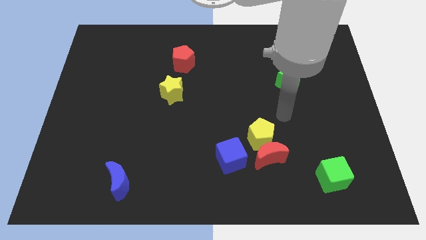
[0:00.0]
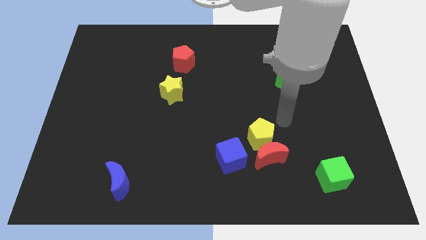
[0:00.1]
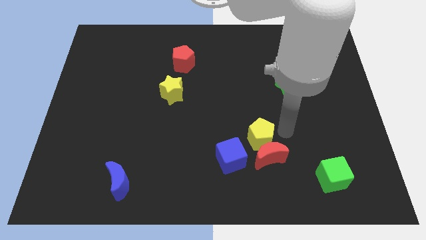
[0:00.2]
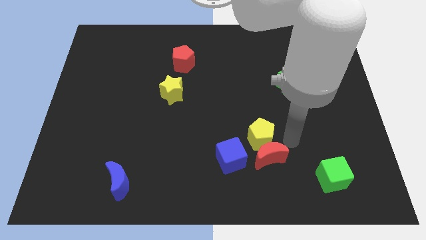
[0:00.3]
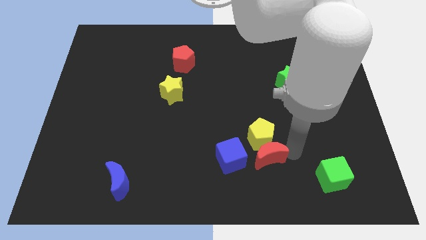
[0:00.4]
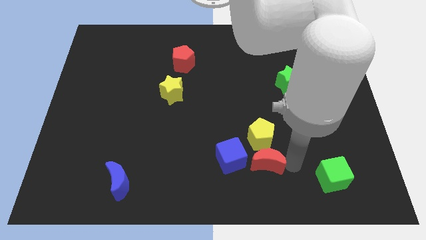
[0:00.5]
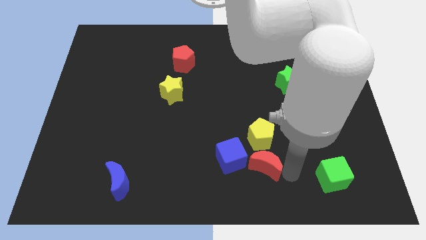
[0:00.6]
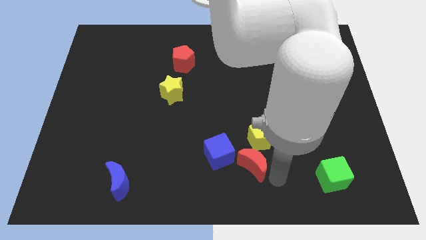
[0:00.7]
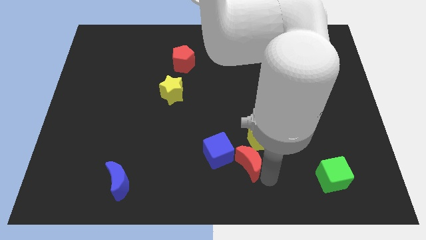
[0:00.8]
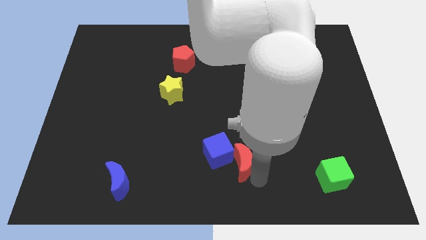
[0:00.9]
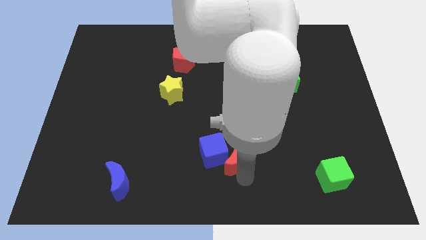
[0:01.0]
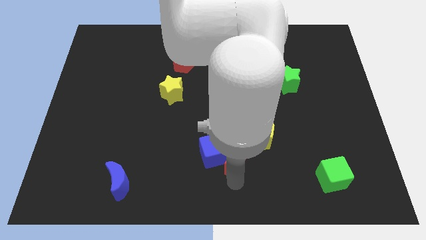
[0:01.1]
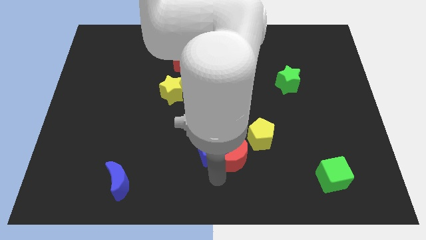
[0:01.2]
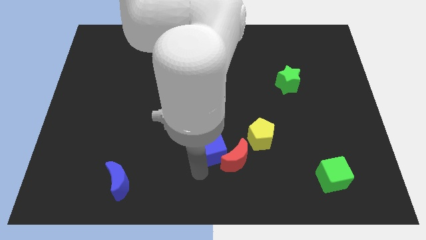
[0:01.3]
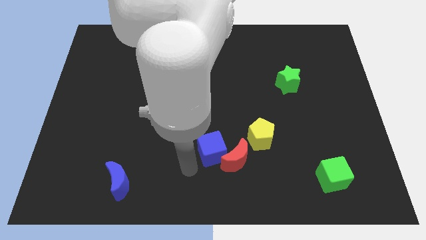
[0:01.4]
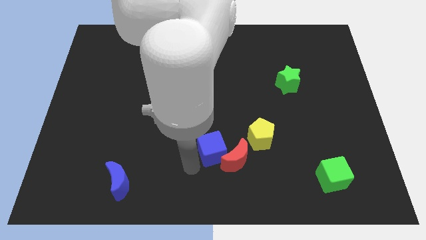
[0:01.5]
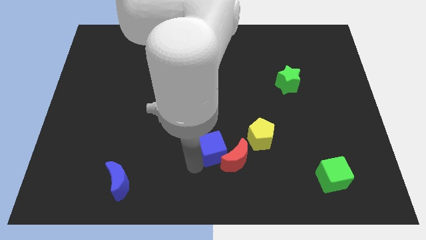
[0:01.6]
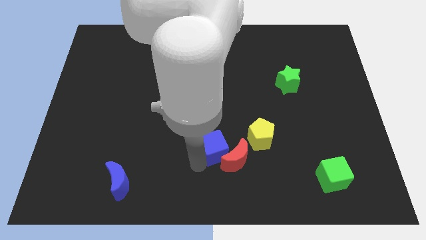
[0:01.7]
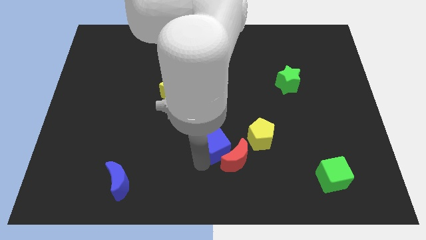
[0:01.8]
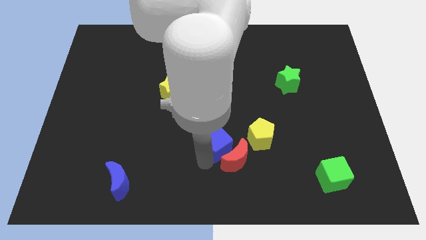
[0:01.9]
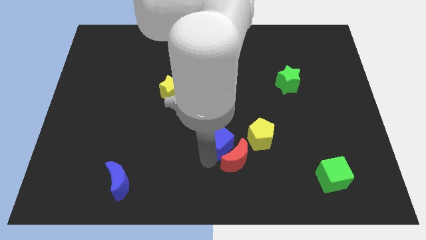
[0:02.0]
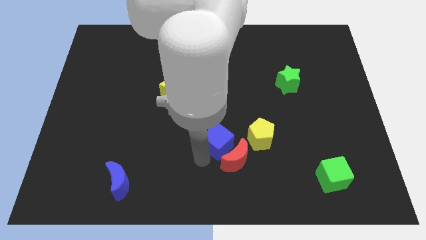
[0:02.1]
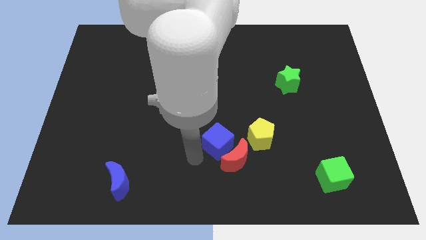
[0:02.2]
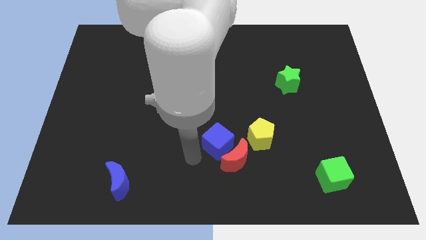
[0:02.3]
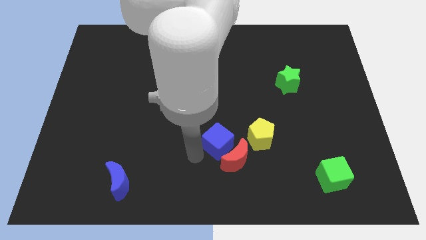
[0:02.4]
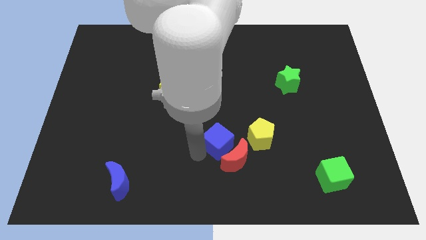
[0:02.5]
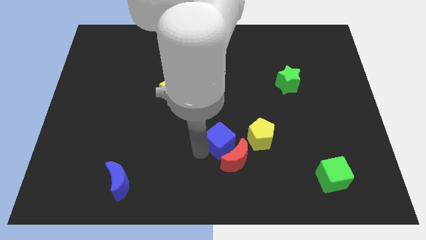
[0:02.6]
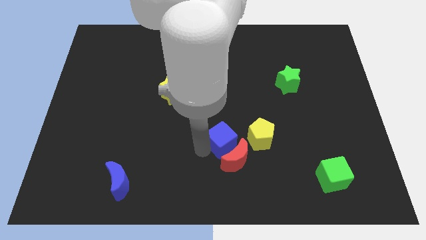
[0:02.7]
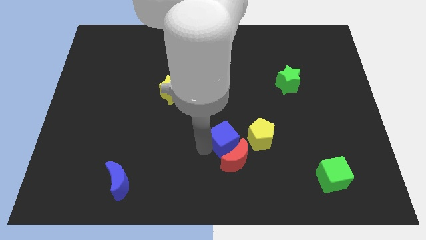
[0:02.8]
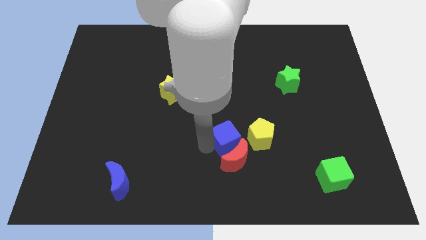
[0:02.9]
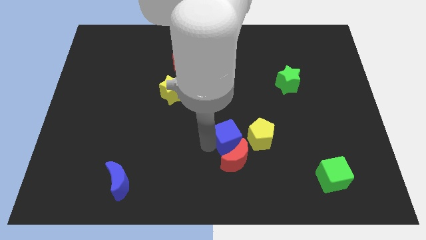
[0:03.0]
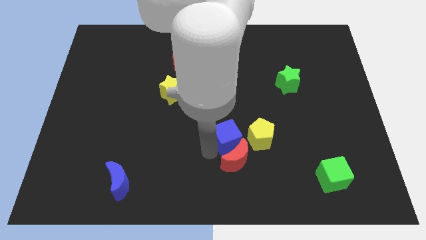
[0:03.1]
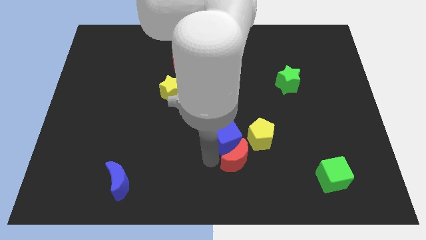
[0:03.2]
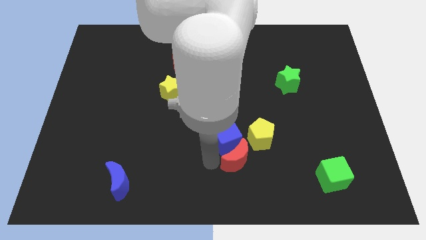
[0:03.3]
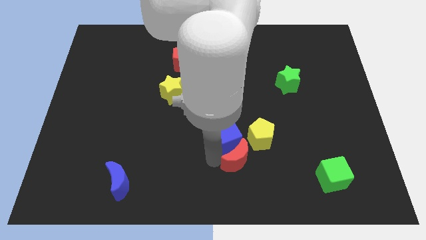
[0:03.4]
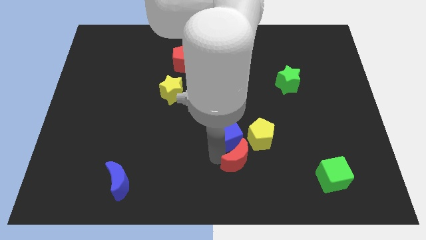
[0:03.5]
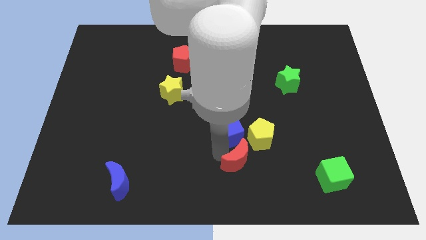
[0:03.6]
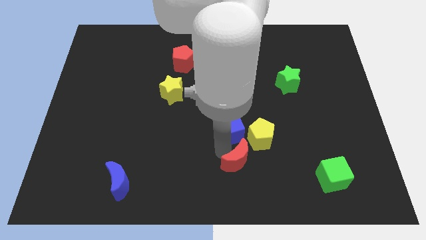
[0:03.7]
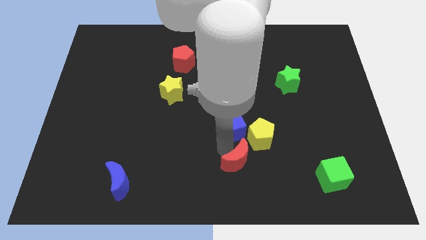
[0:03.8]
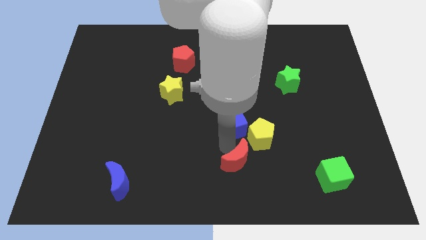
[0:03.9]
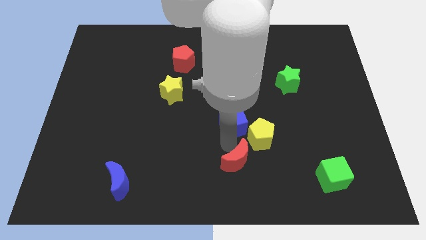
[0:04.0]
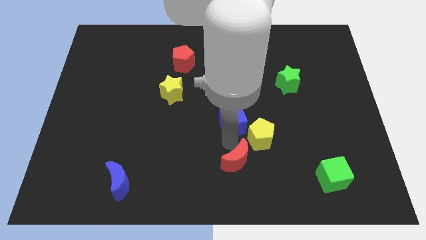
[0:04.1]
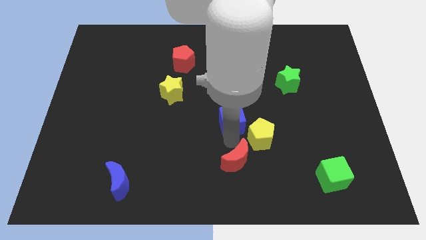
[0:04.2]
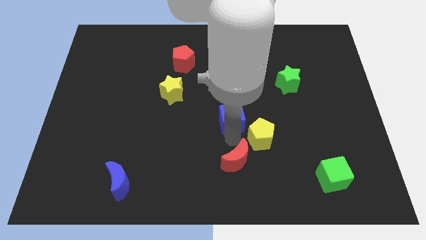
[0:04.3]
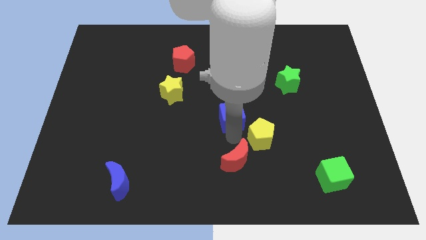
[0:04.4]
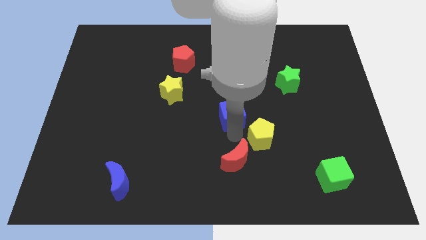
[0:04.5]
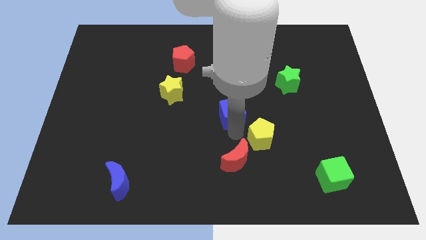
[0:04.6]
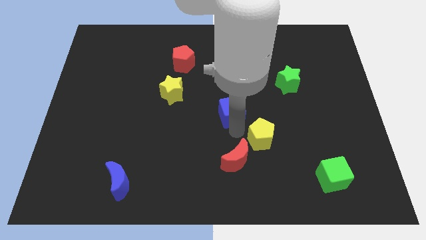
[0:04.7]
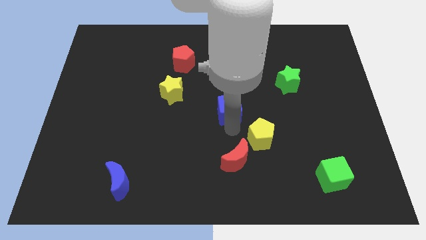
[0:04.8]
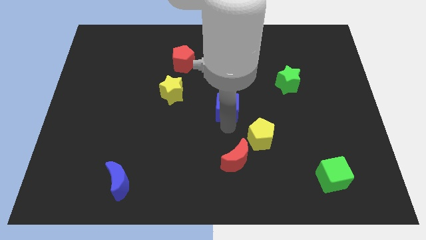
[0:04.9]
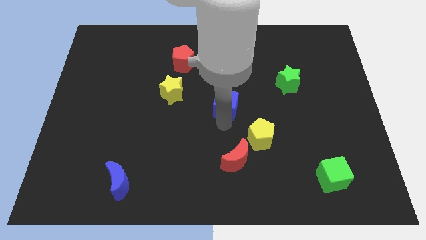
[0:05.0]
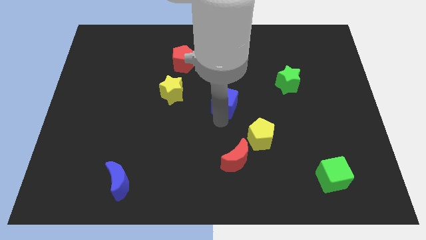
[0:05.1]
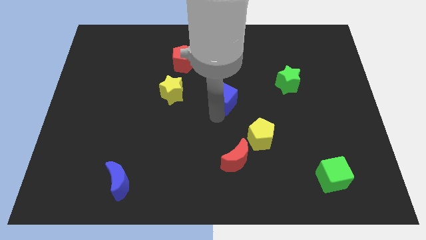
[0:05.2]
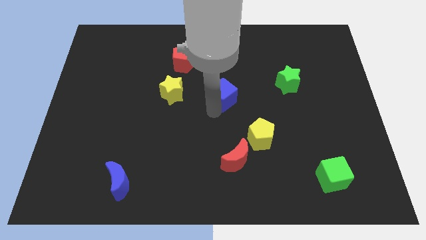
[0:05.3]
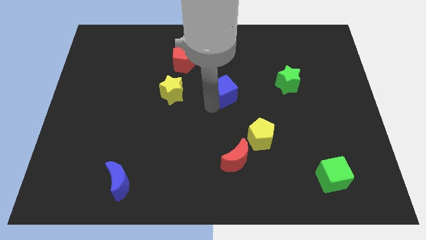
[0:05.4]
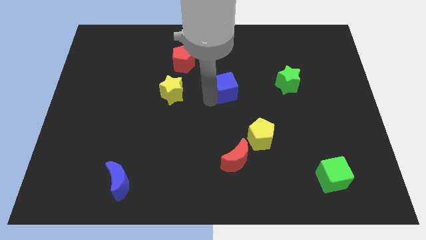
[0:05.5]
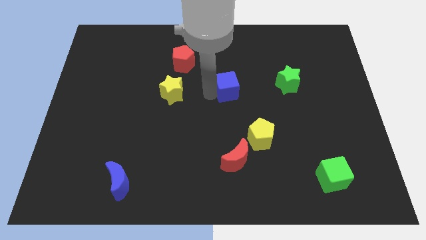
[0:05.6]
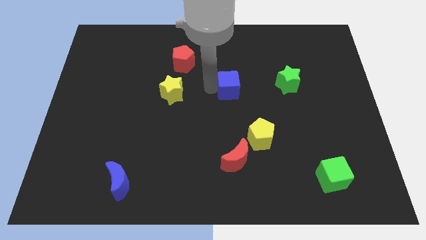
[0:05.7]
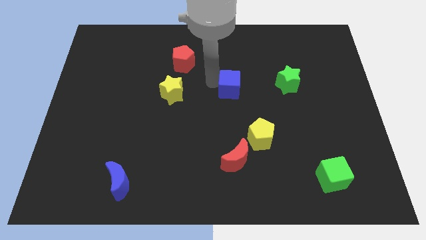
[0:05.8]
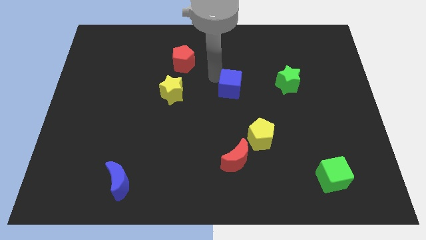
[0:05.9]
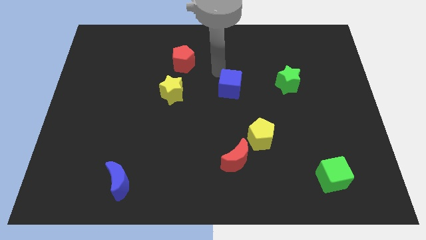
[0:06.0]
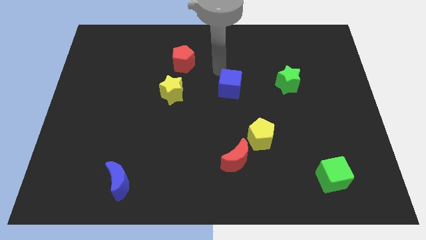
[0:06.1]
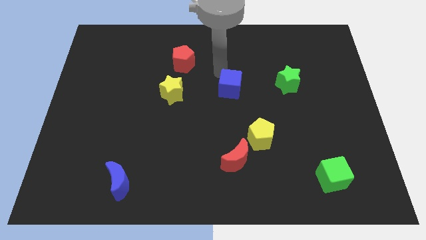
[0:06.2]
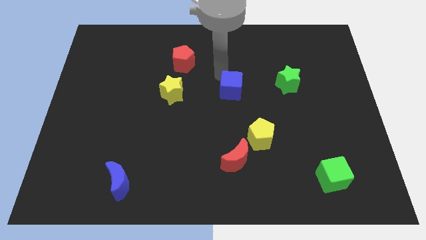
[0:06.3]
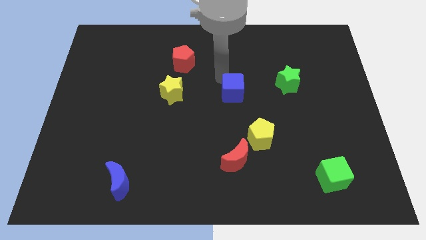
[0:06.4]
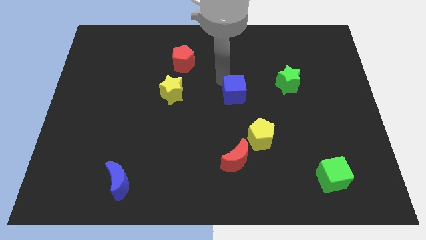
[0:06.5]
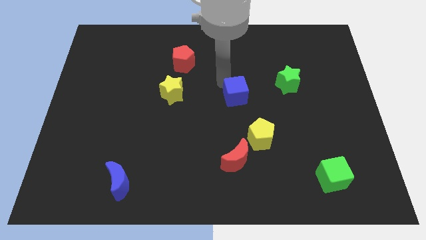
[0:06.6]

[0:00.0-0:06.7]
move the blue cube up and then to the right a bit

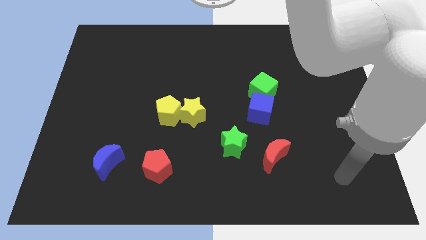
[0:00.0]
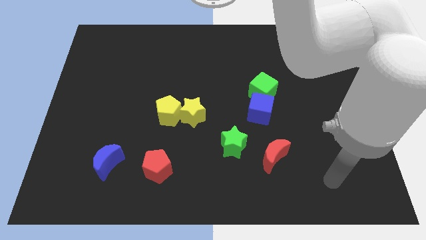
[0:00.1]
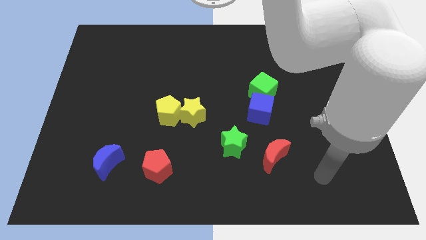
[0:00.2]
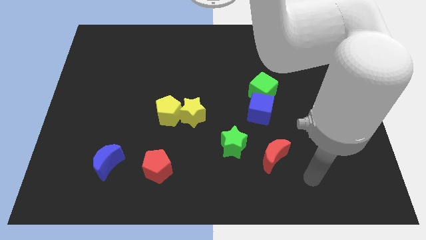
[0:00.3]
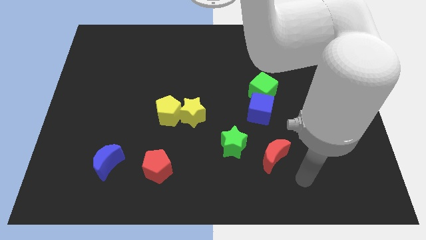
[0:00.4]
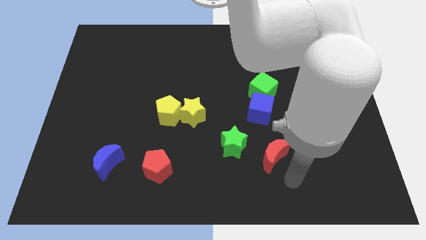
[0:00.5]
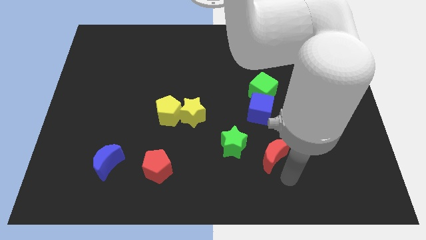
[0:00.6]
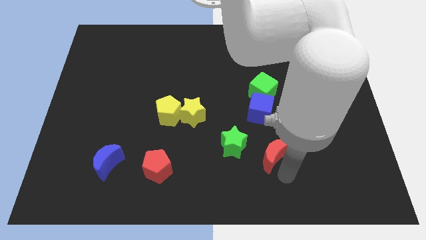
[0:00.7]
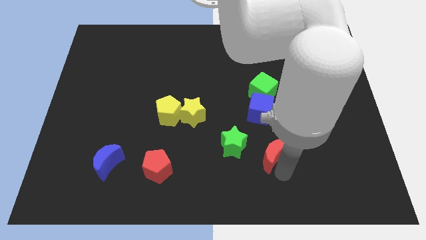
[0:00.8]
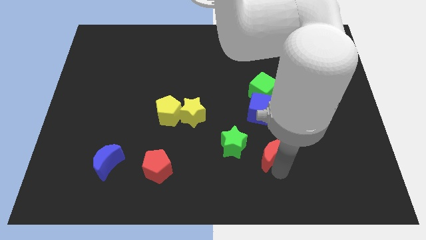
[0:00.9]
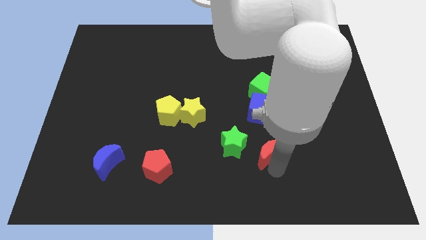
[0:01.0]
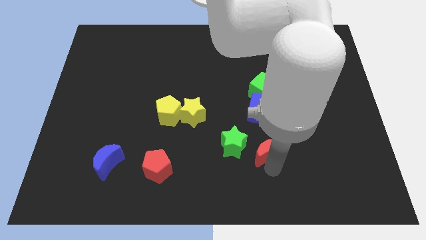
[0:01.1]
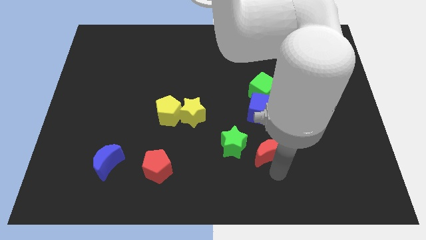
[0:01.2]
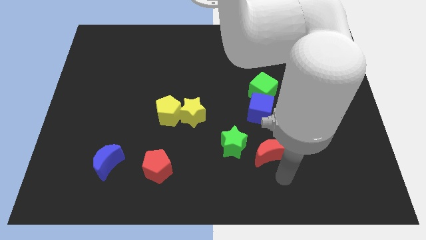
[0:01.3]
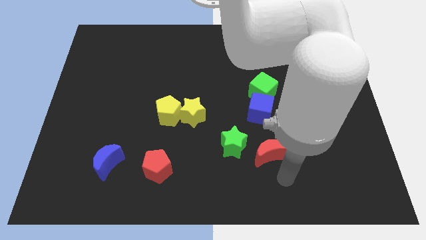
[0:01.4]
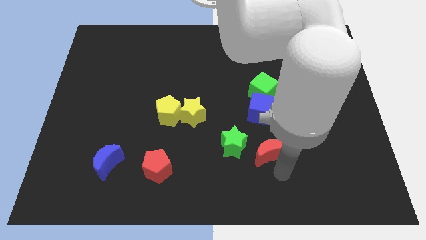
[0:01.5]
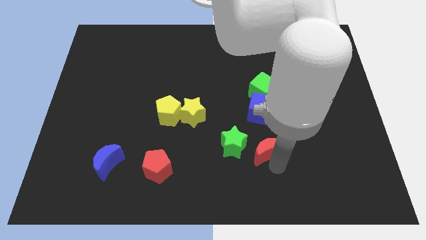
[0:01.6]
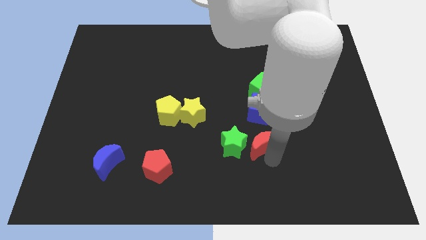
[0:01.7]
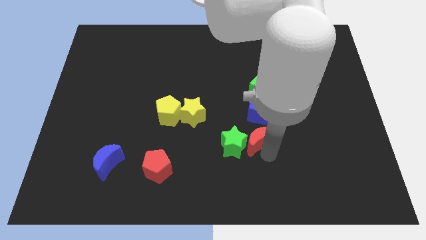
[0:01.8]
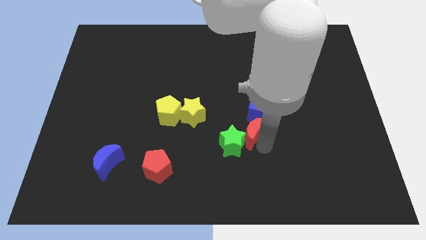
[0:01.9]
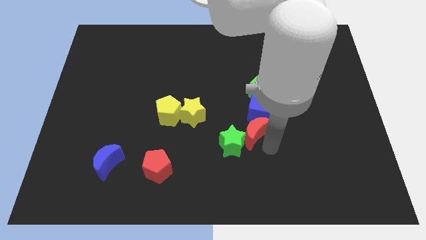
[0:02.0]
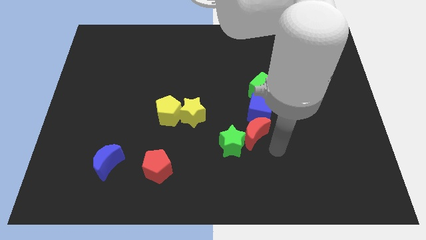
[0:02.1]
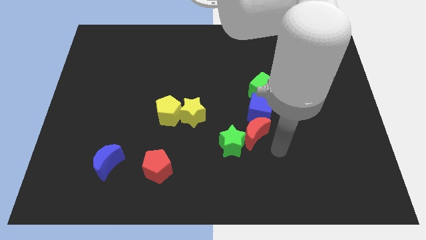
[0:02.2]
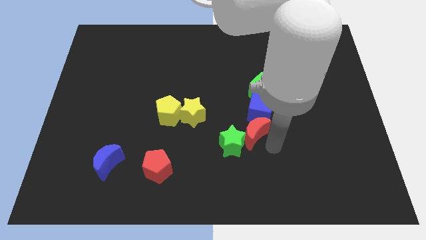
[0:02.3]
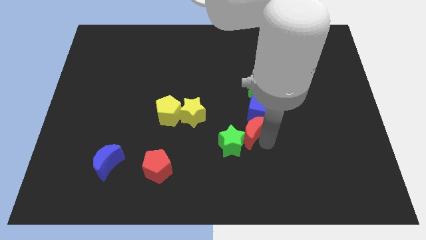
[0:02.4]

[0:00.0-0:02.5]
slightly move the red moon diagonally upwards and left
